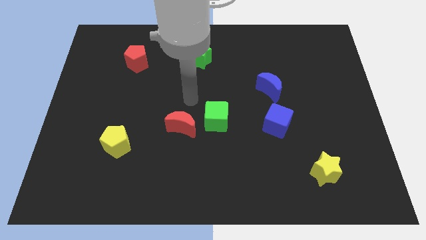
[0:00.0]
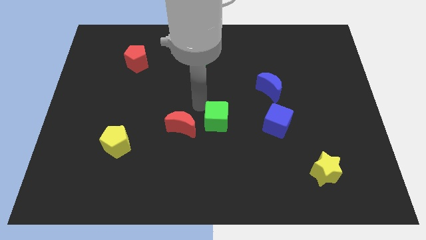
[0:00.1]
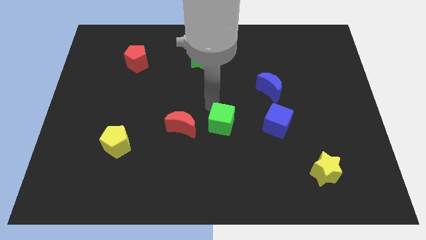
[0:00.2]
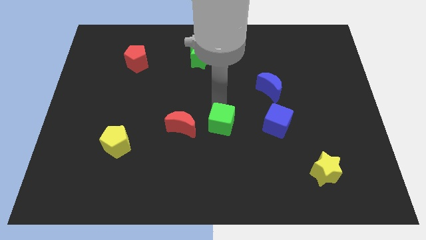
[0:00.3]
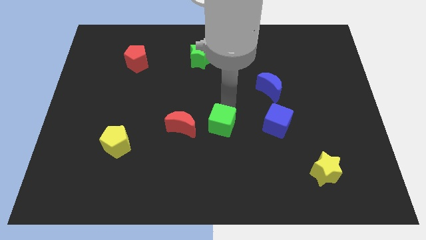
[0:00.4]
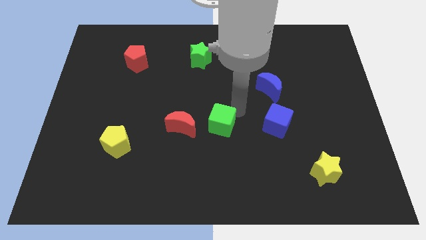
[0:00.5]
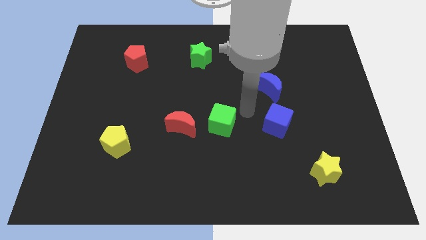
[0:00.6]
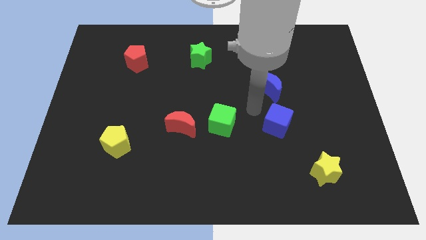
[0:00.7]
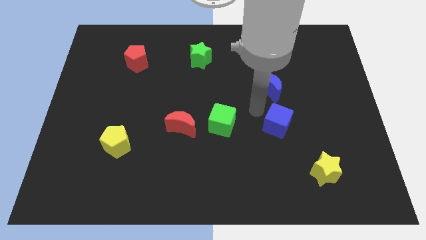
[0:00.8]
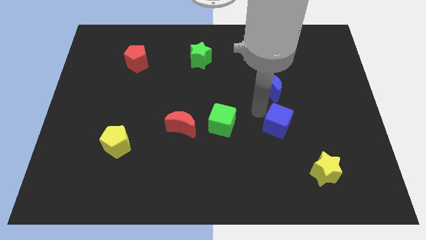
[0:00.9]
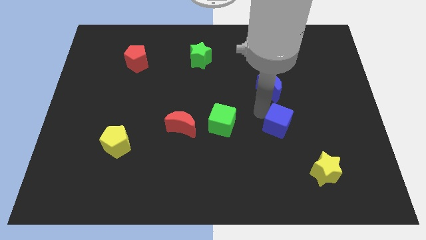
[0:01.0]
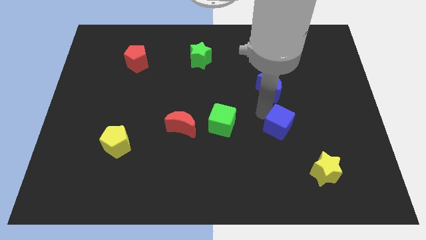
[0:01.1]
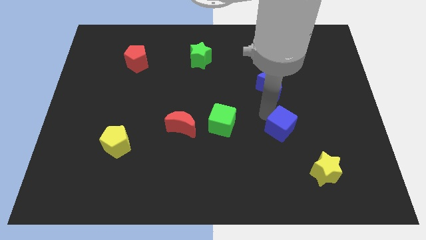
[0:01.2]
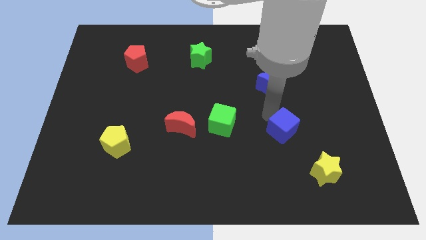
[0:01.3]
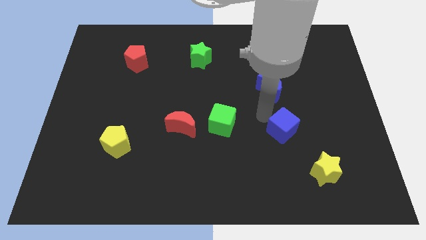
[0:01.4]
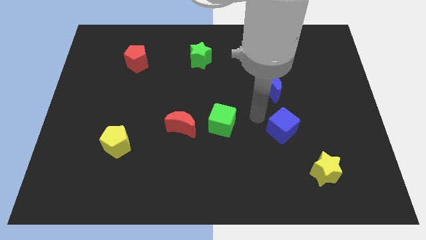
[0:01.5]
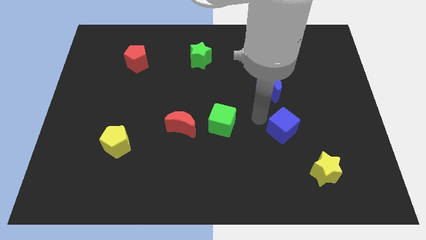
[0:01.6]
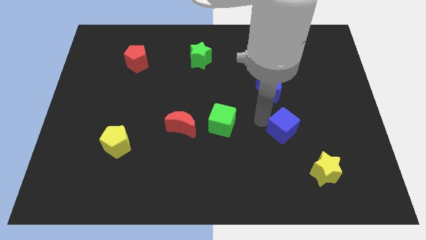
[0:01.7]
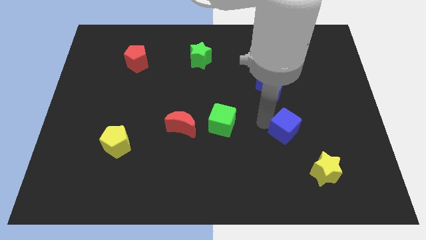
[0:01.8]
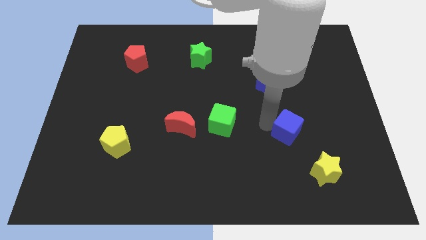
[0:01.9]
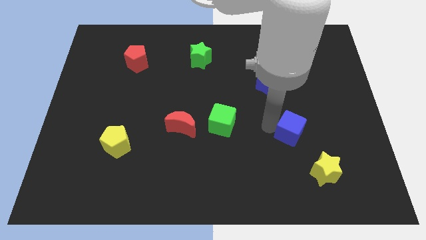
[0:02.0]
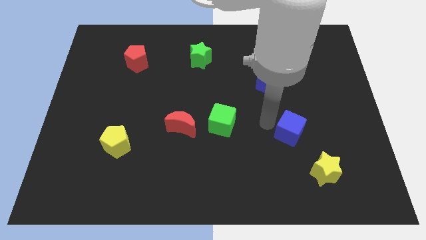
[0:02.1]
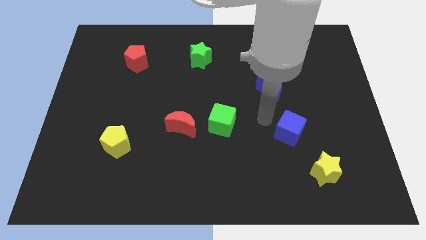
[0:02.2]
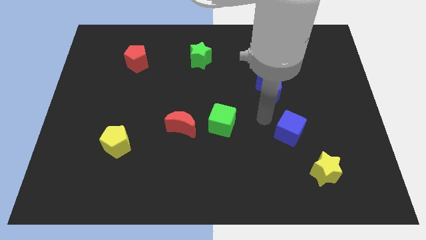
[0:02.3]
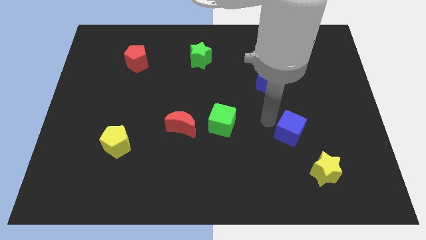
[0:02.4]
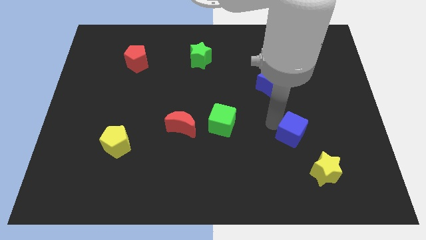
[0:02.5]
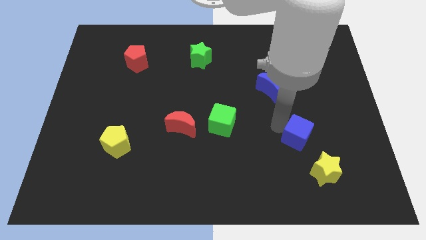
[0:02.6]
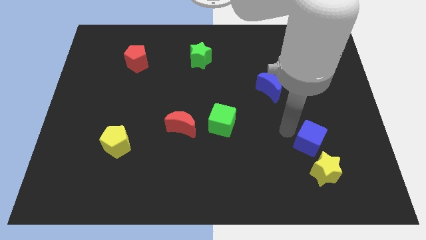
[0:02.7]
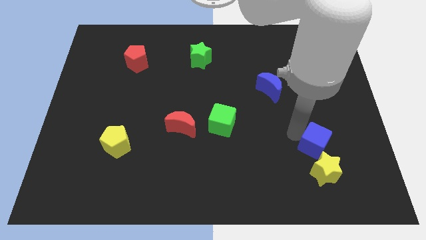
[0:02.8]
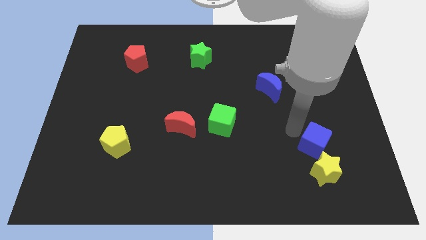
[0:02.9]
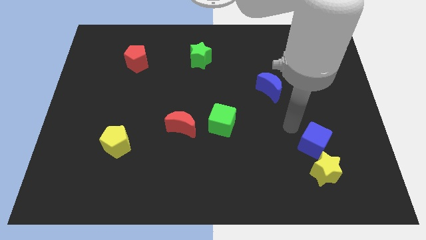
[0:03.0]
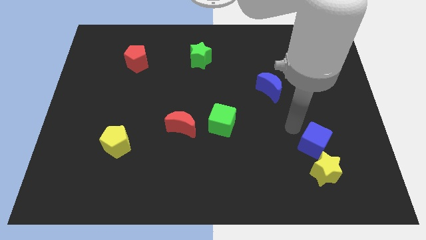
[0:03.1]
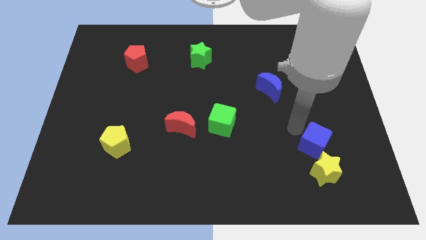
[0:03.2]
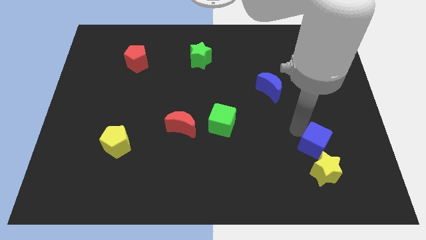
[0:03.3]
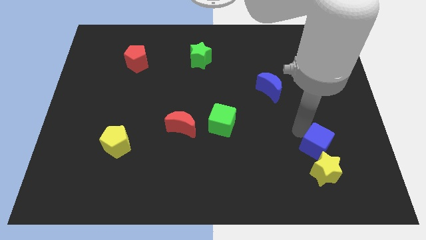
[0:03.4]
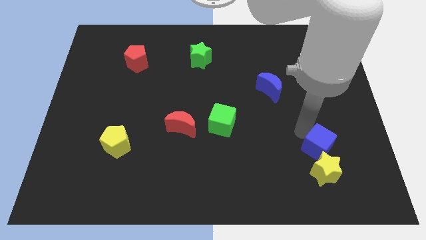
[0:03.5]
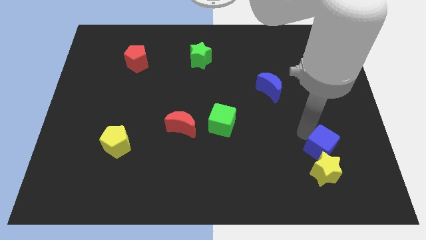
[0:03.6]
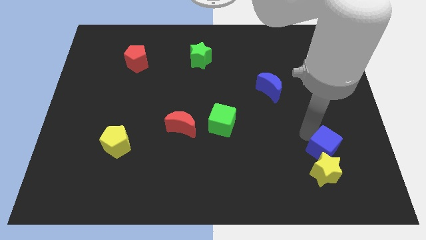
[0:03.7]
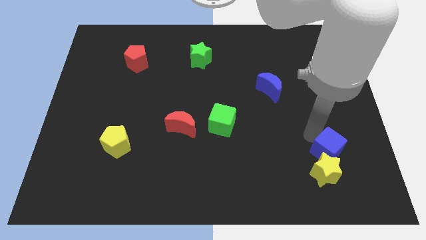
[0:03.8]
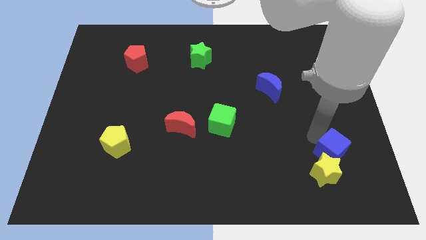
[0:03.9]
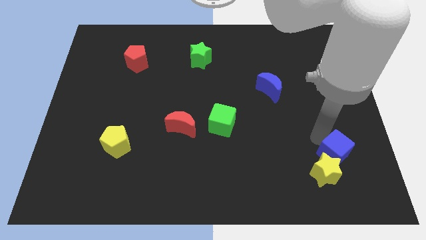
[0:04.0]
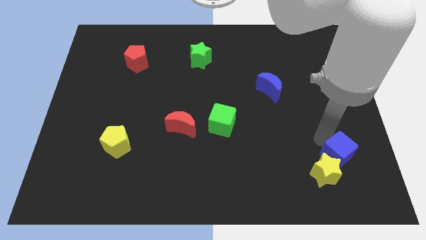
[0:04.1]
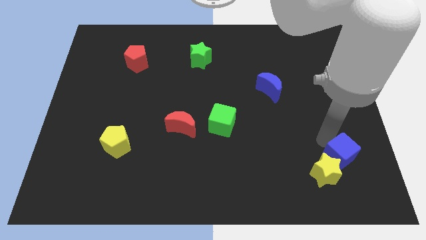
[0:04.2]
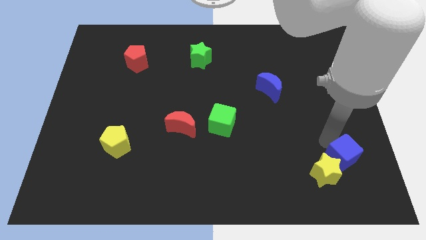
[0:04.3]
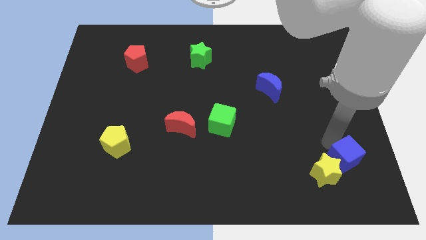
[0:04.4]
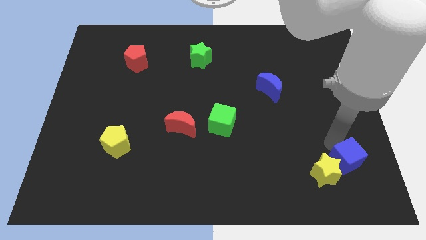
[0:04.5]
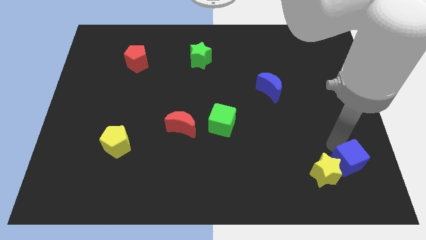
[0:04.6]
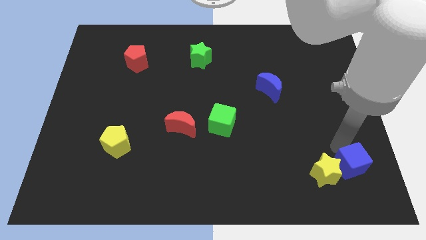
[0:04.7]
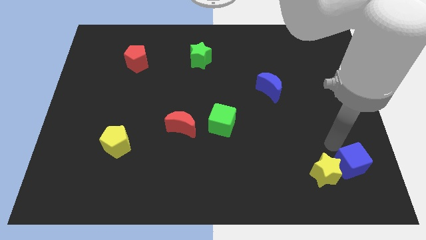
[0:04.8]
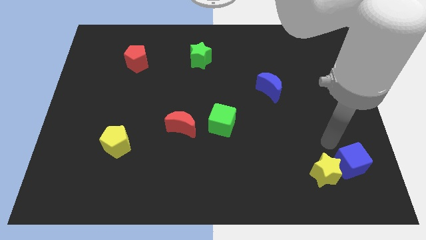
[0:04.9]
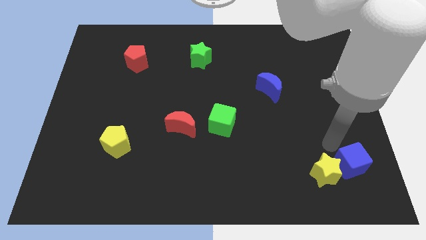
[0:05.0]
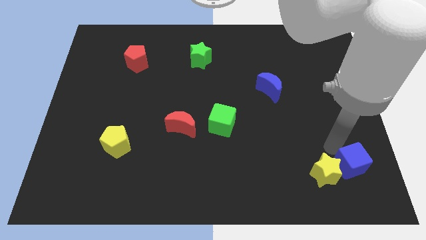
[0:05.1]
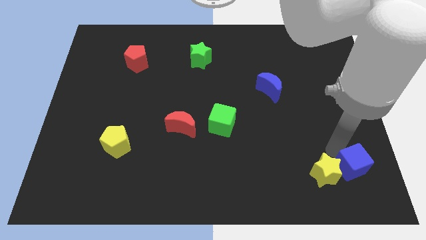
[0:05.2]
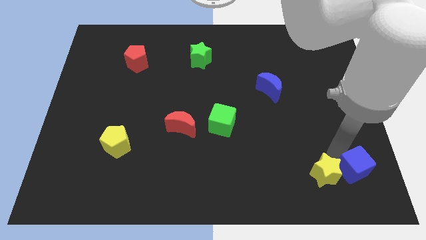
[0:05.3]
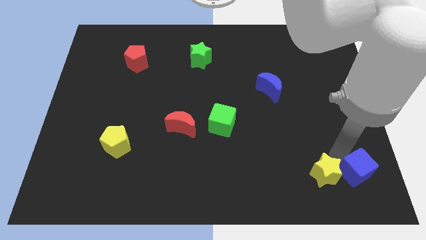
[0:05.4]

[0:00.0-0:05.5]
move the blue cube to the bottom right of the board

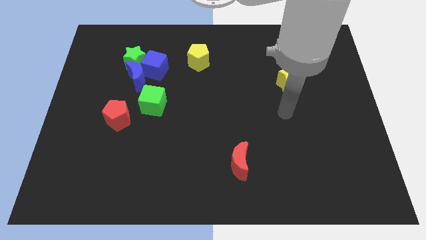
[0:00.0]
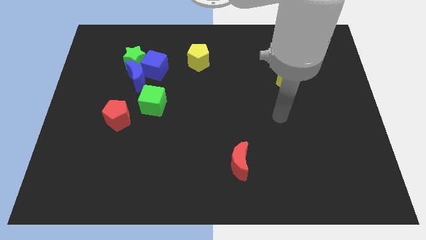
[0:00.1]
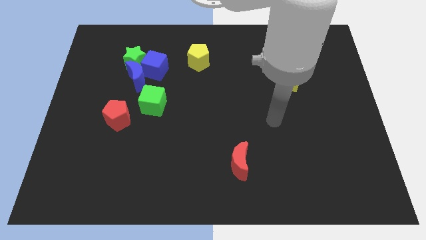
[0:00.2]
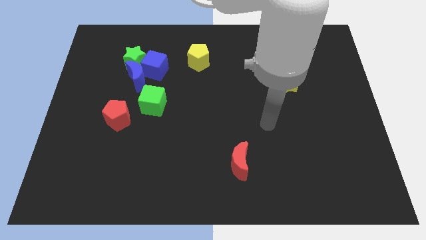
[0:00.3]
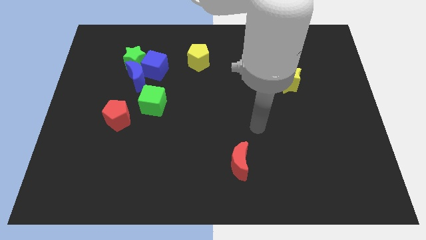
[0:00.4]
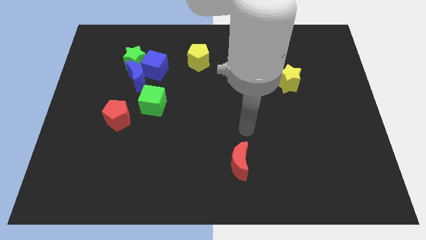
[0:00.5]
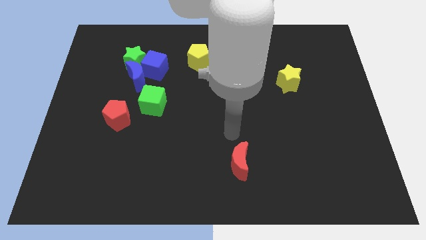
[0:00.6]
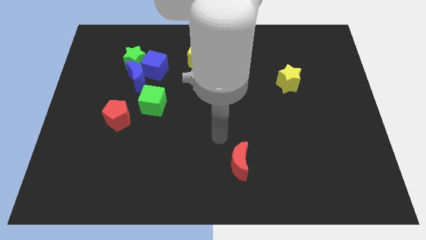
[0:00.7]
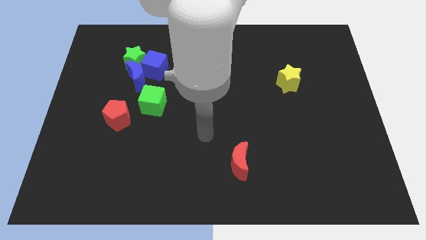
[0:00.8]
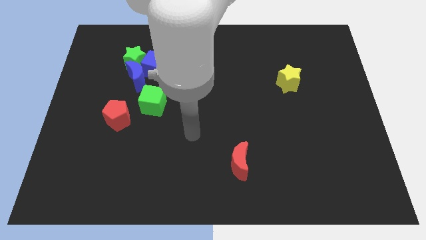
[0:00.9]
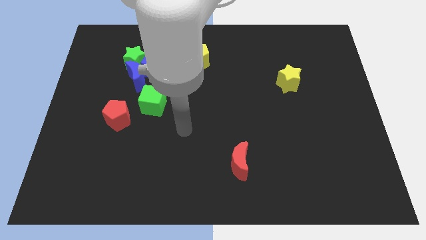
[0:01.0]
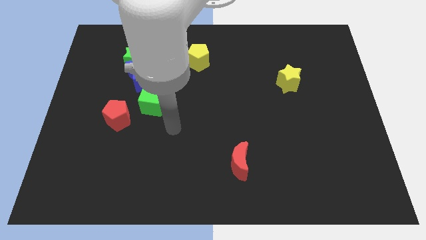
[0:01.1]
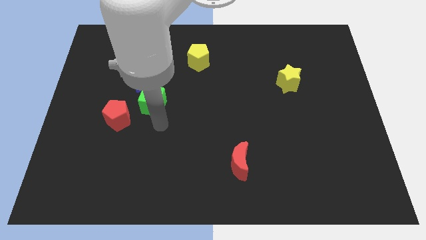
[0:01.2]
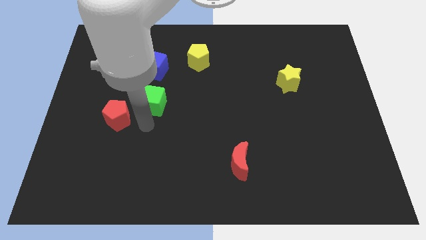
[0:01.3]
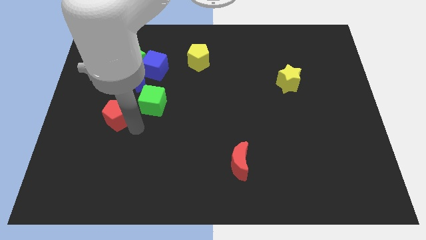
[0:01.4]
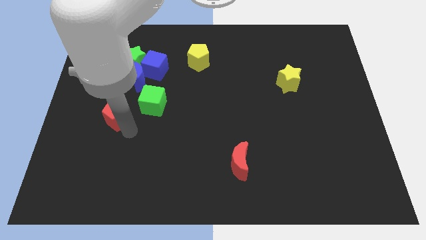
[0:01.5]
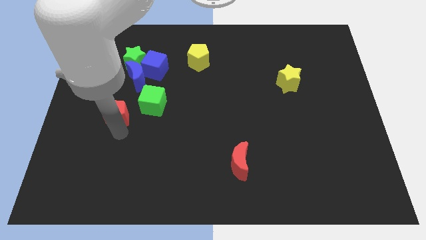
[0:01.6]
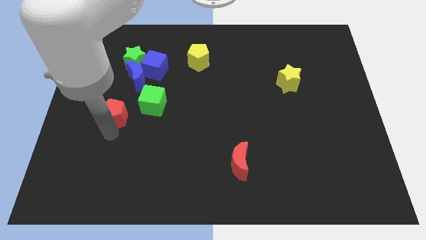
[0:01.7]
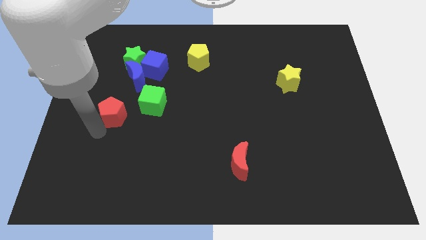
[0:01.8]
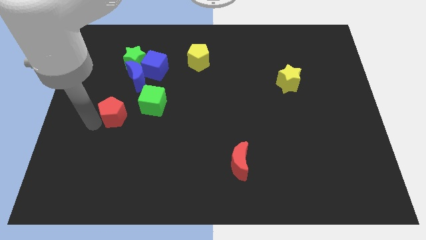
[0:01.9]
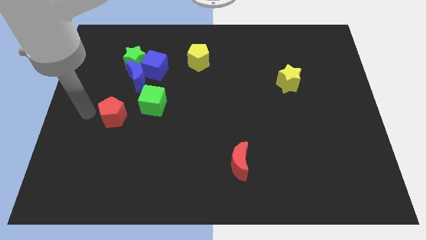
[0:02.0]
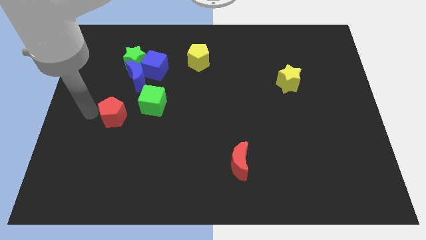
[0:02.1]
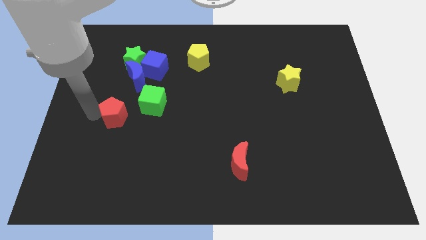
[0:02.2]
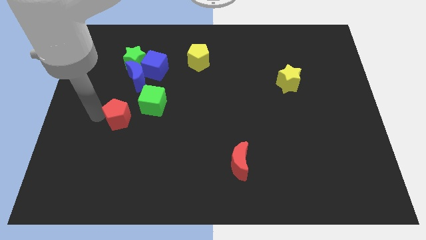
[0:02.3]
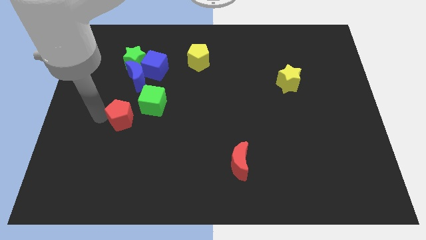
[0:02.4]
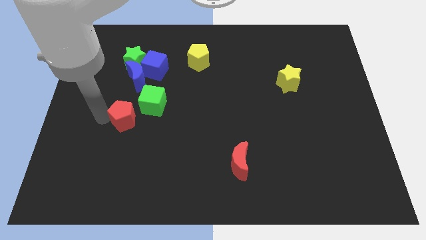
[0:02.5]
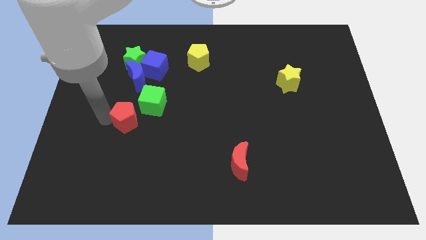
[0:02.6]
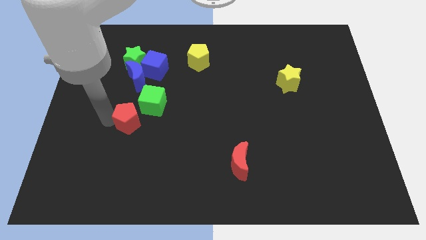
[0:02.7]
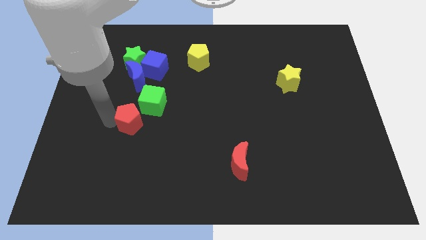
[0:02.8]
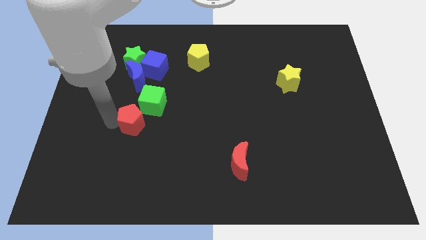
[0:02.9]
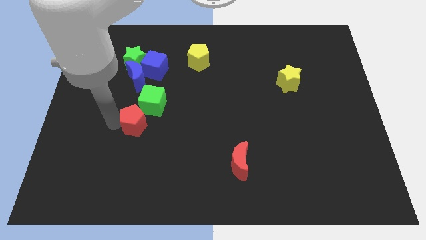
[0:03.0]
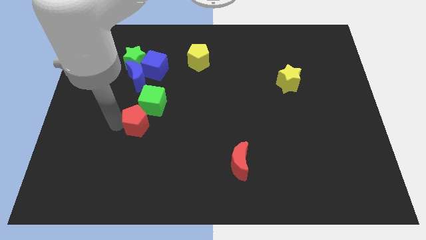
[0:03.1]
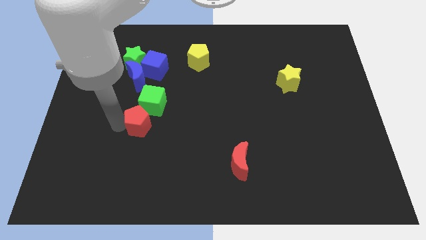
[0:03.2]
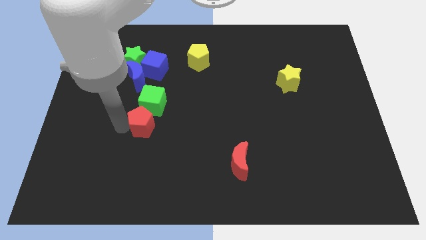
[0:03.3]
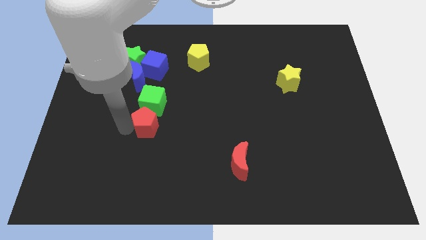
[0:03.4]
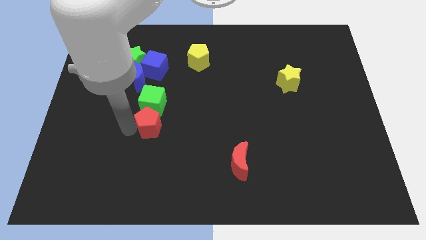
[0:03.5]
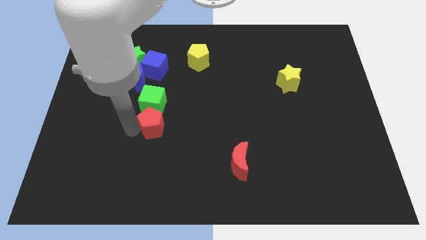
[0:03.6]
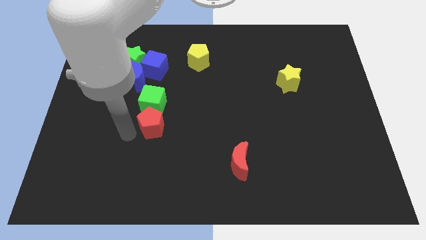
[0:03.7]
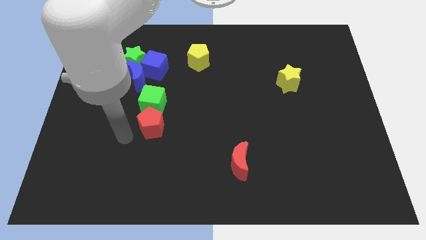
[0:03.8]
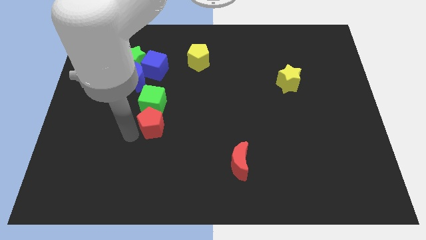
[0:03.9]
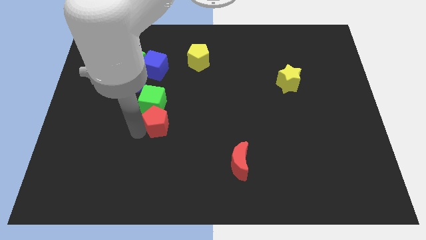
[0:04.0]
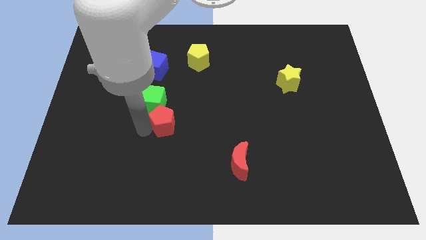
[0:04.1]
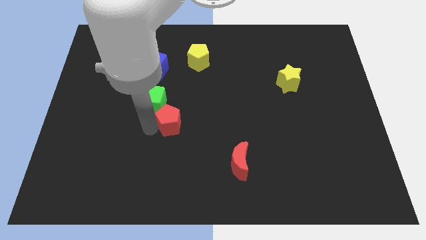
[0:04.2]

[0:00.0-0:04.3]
push the red pentagon to the middle of the board
